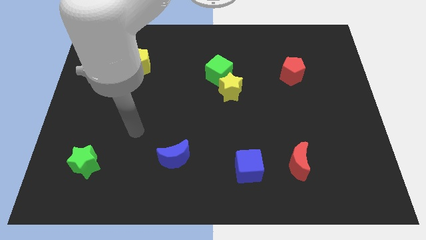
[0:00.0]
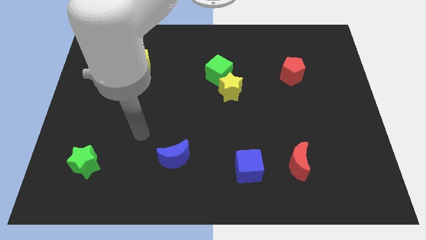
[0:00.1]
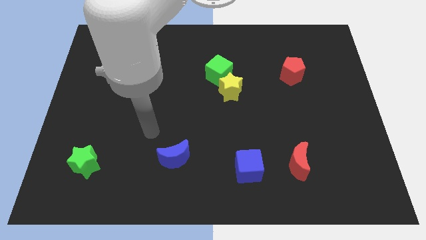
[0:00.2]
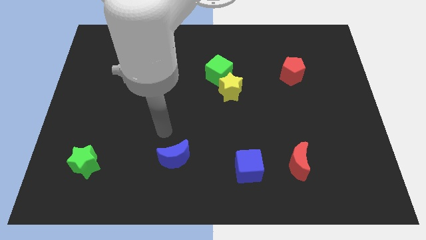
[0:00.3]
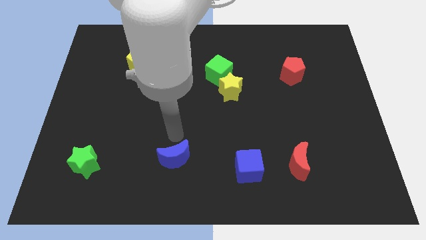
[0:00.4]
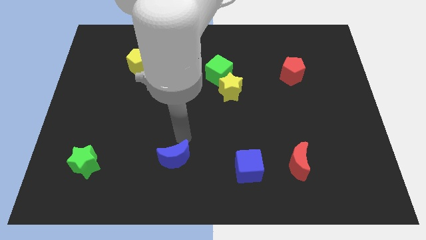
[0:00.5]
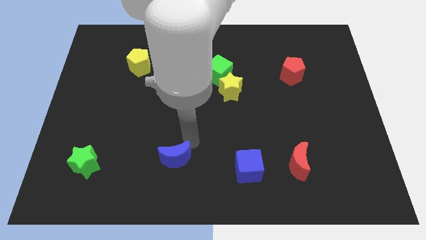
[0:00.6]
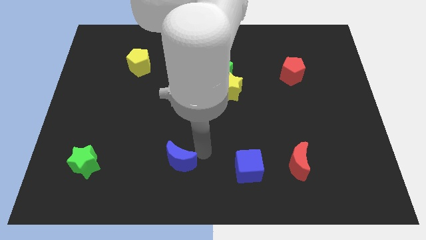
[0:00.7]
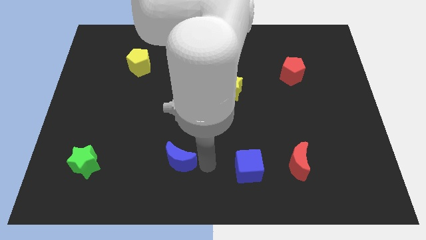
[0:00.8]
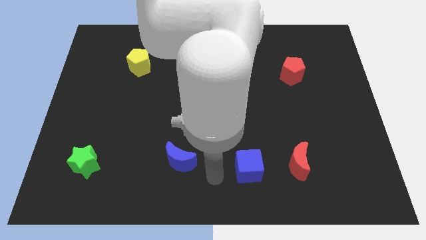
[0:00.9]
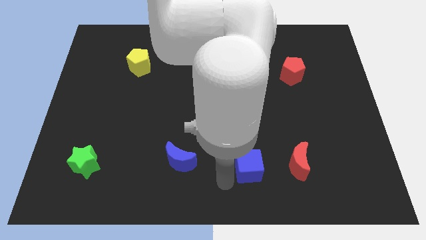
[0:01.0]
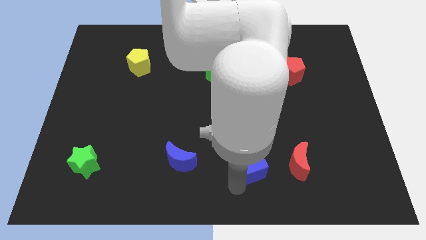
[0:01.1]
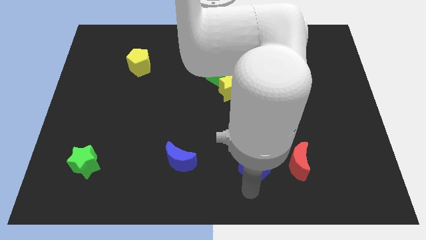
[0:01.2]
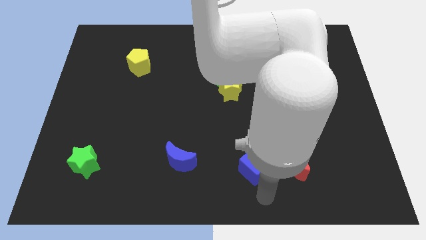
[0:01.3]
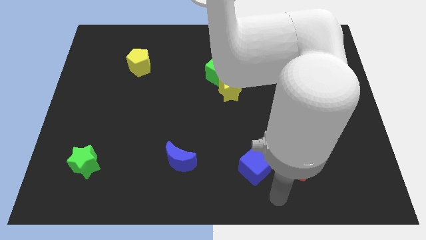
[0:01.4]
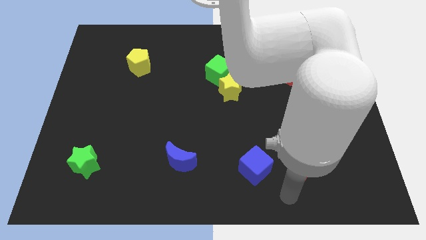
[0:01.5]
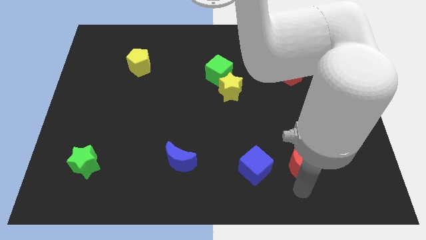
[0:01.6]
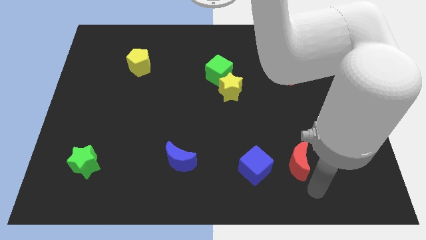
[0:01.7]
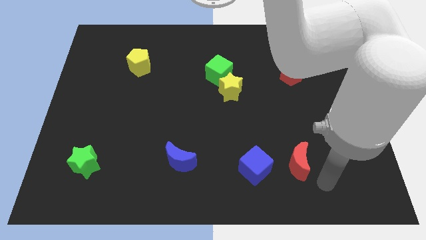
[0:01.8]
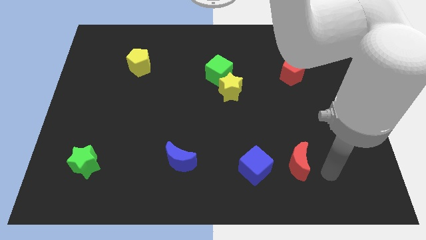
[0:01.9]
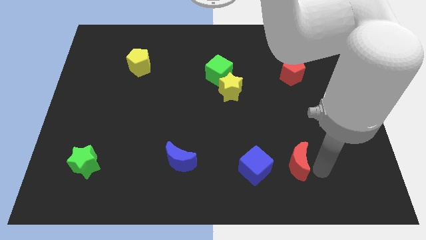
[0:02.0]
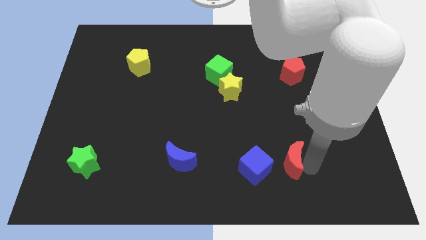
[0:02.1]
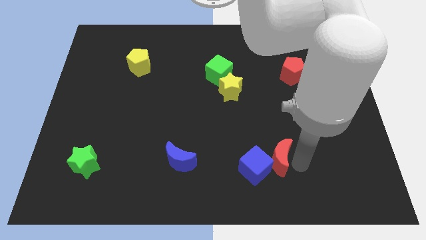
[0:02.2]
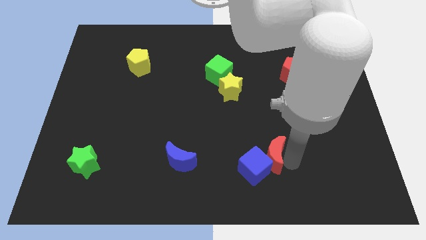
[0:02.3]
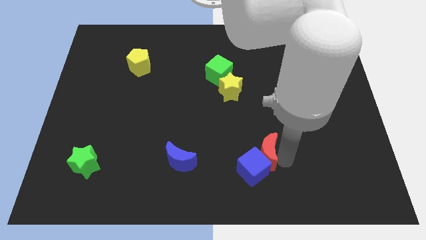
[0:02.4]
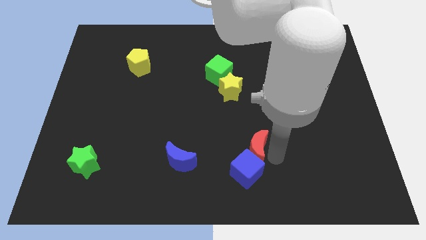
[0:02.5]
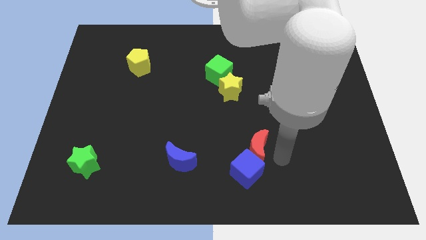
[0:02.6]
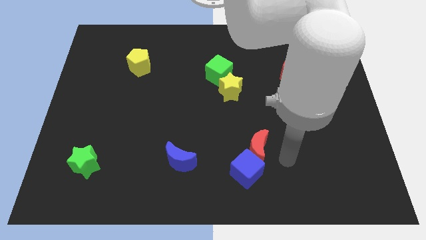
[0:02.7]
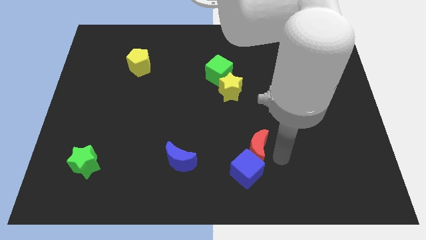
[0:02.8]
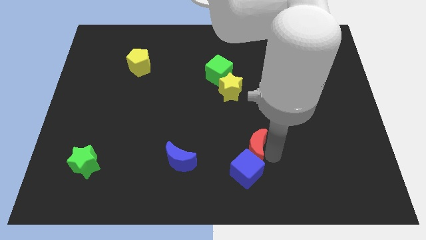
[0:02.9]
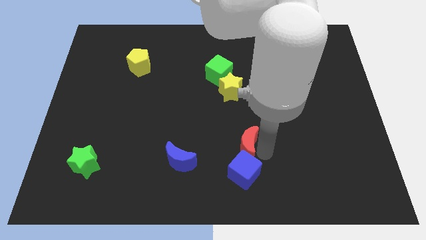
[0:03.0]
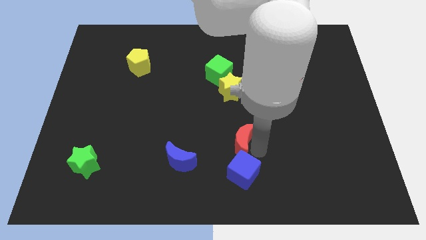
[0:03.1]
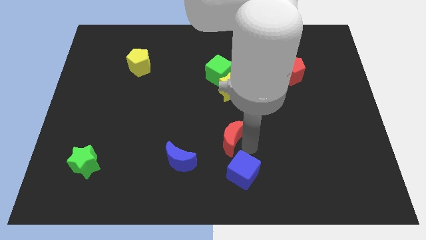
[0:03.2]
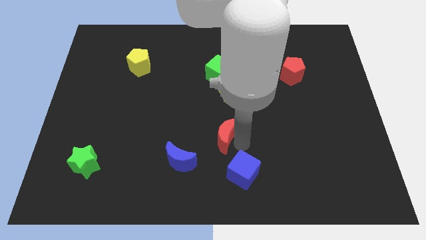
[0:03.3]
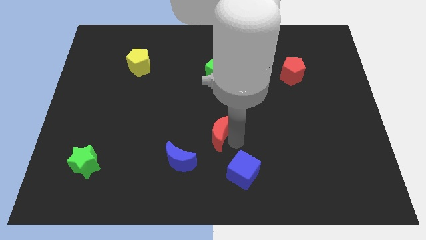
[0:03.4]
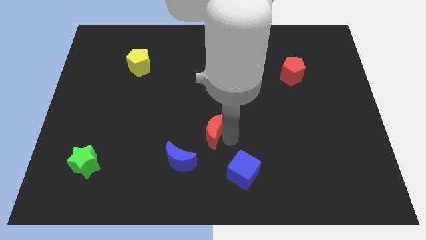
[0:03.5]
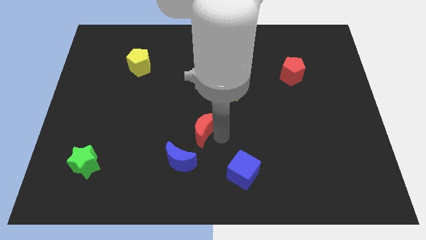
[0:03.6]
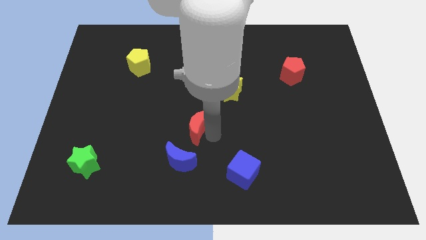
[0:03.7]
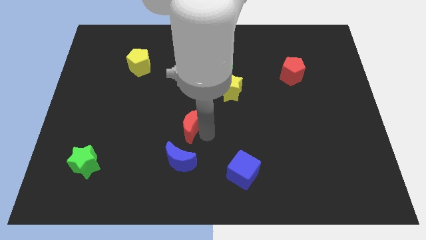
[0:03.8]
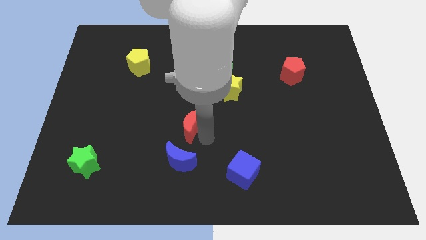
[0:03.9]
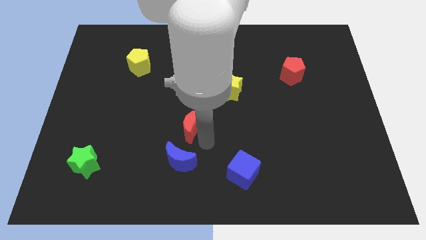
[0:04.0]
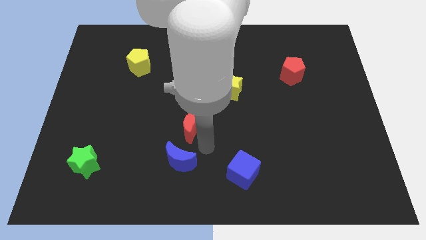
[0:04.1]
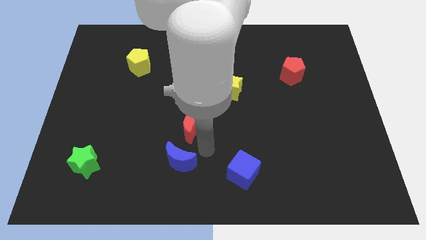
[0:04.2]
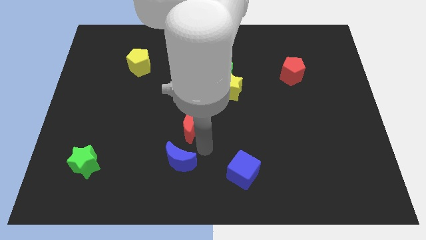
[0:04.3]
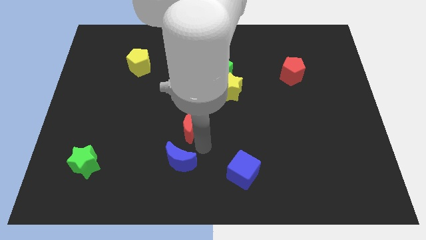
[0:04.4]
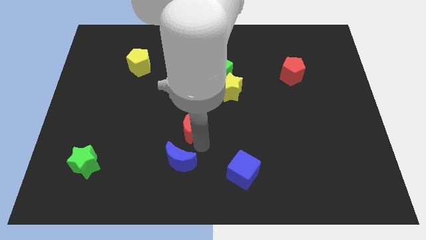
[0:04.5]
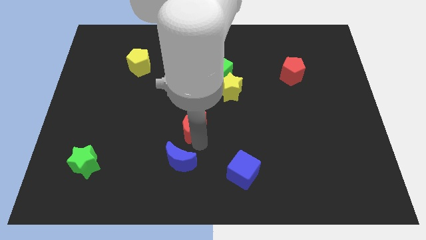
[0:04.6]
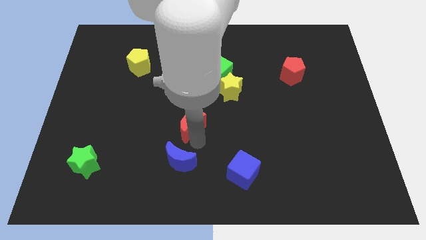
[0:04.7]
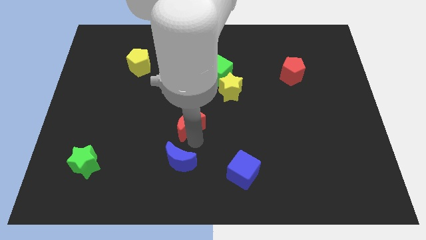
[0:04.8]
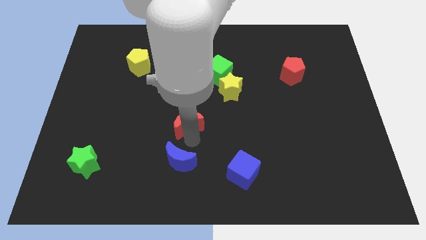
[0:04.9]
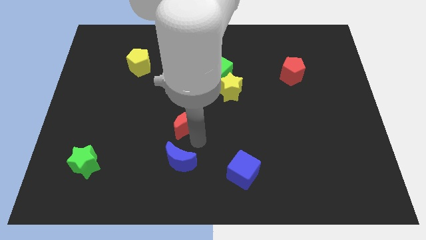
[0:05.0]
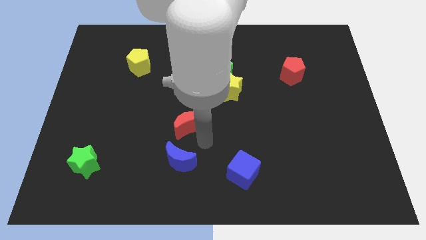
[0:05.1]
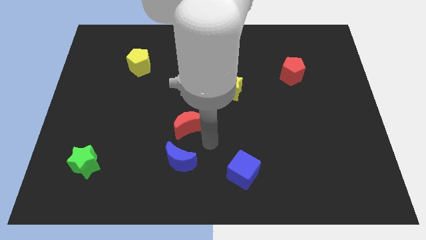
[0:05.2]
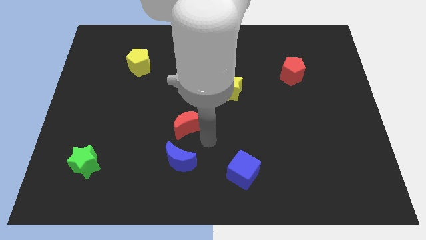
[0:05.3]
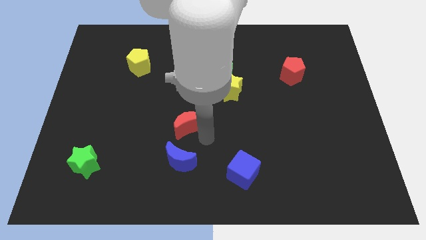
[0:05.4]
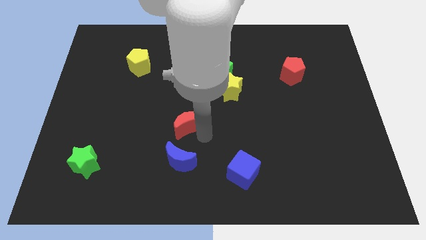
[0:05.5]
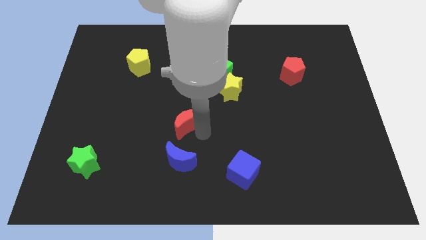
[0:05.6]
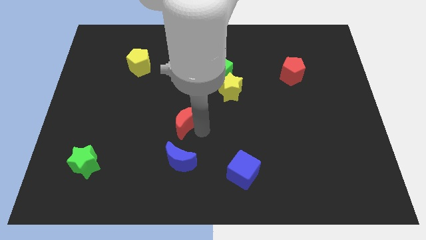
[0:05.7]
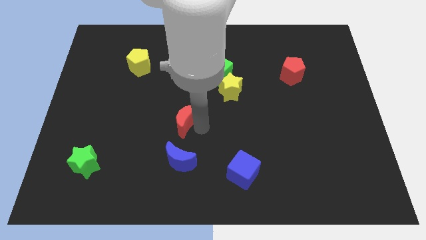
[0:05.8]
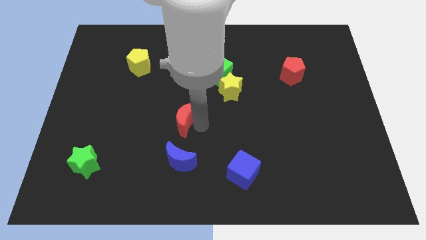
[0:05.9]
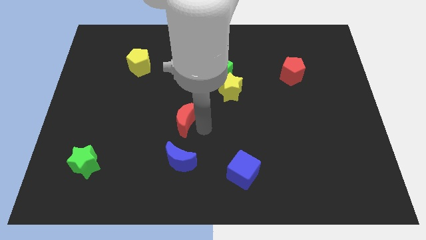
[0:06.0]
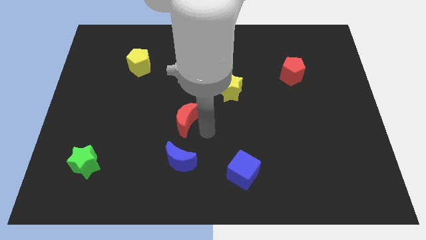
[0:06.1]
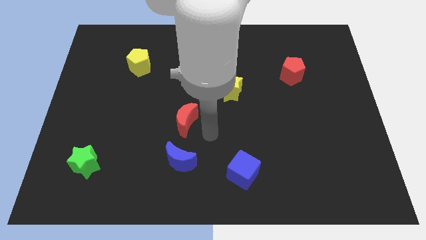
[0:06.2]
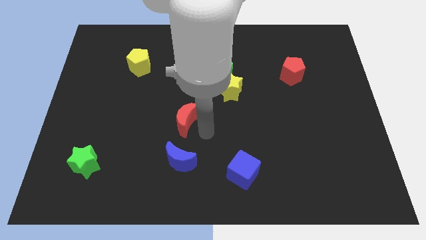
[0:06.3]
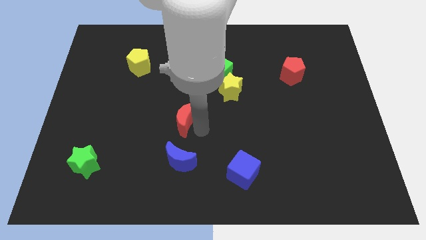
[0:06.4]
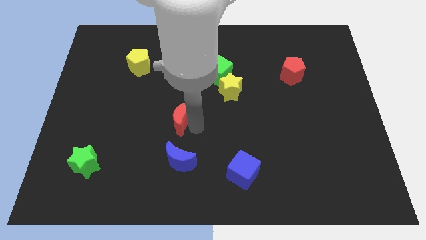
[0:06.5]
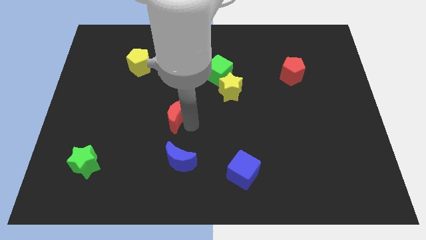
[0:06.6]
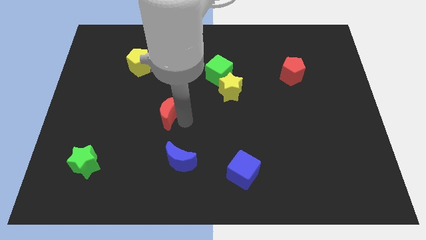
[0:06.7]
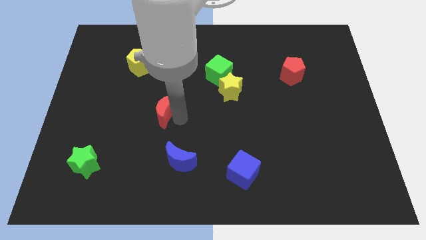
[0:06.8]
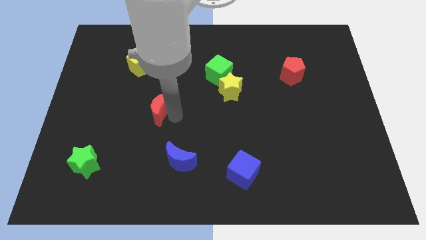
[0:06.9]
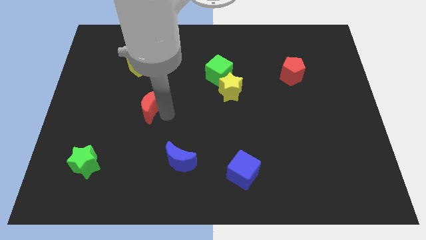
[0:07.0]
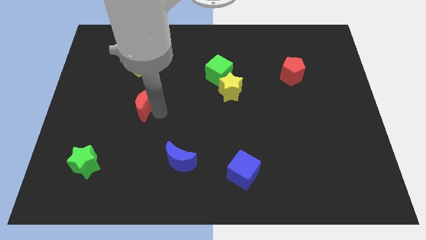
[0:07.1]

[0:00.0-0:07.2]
move the red moon to the bottom of the yellow pentagon
